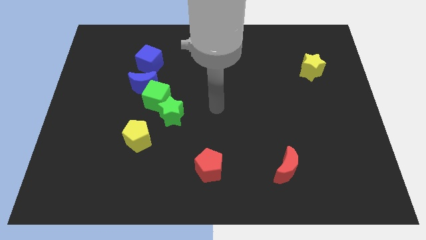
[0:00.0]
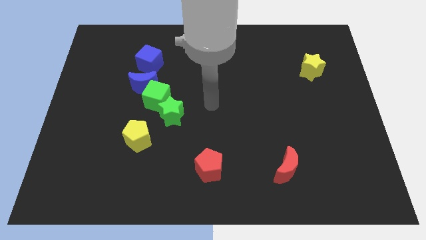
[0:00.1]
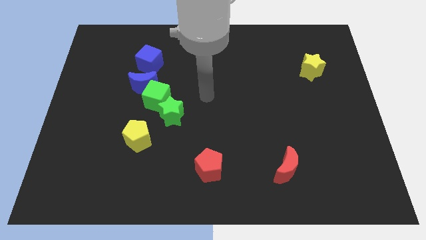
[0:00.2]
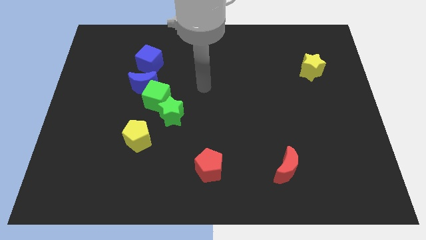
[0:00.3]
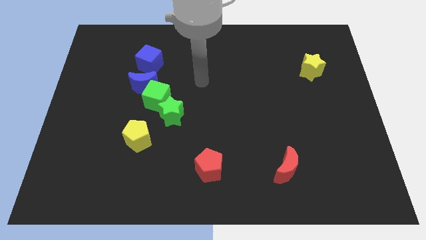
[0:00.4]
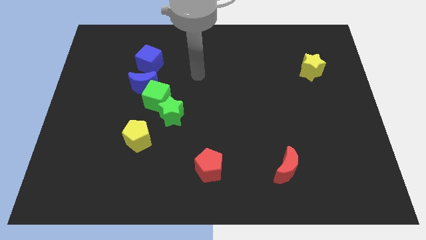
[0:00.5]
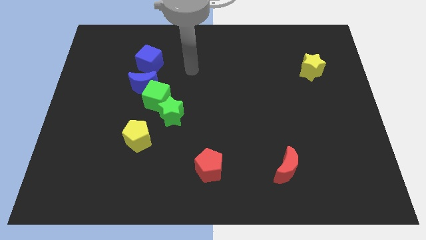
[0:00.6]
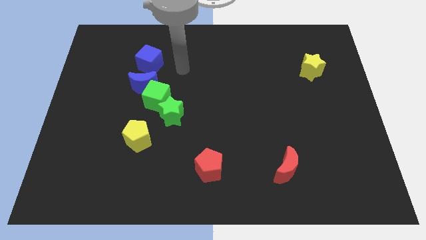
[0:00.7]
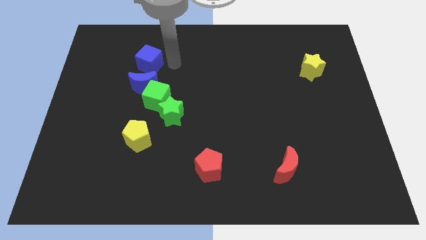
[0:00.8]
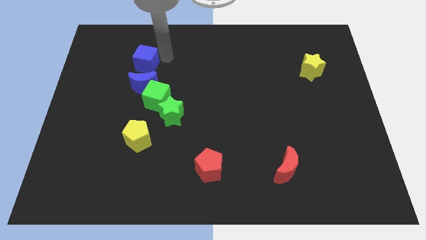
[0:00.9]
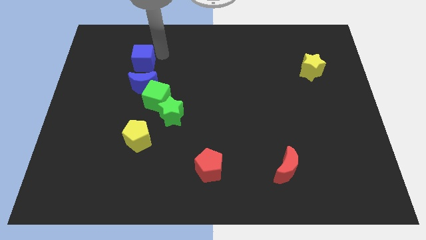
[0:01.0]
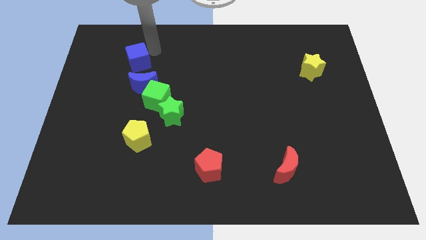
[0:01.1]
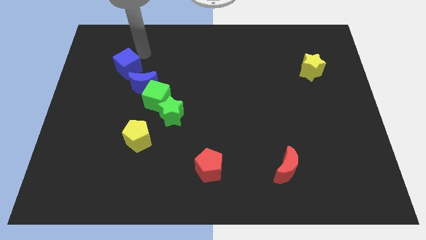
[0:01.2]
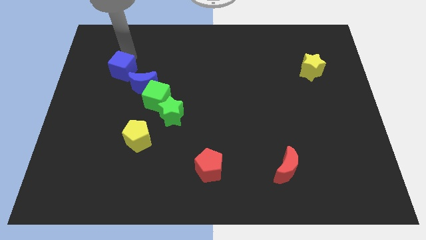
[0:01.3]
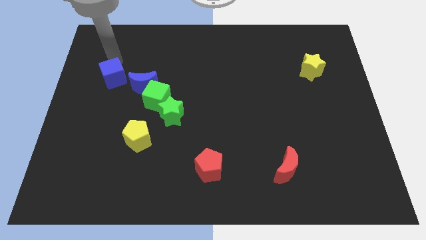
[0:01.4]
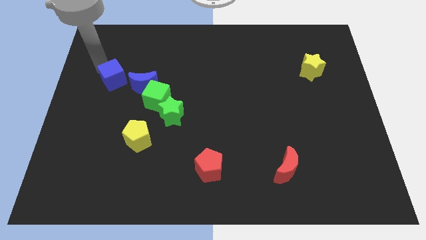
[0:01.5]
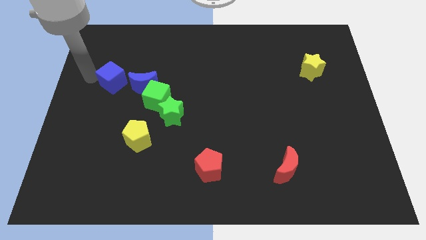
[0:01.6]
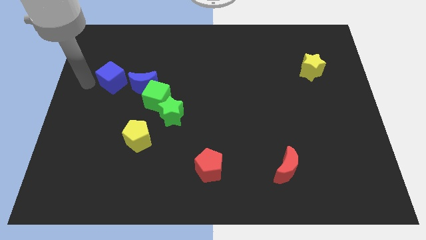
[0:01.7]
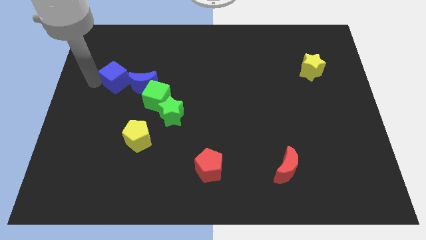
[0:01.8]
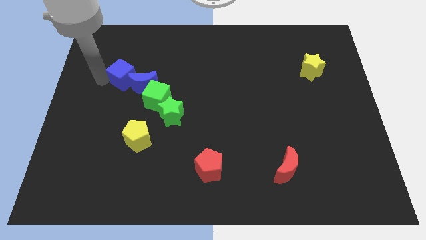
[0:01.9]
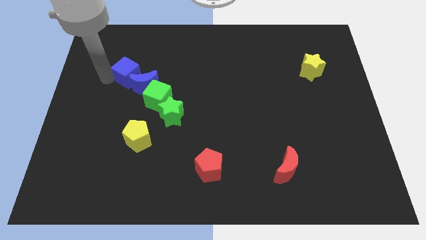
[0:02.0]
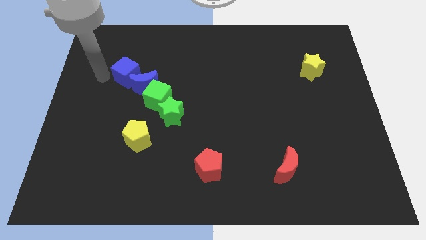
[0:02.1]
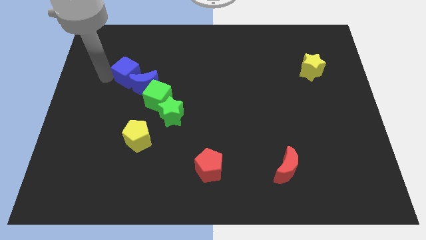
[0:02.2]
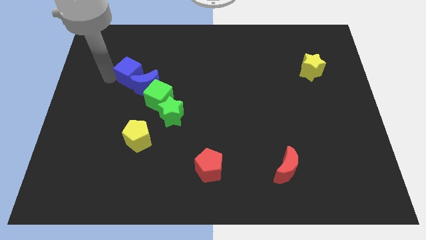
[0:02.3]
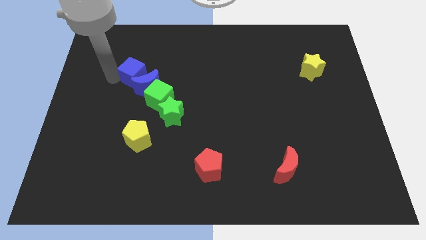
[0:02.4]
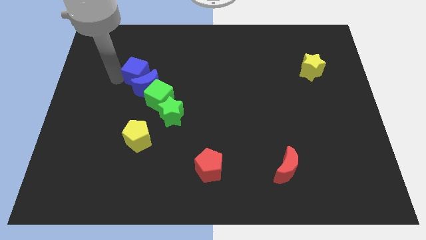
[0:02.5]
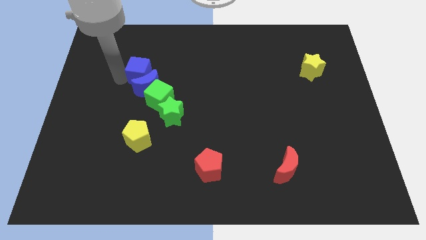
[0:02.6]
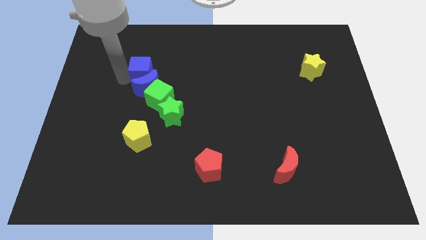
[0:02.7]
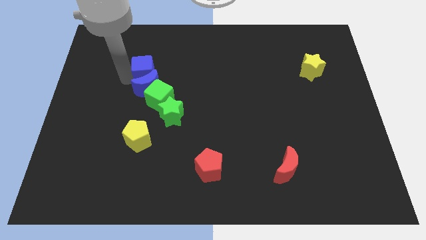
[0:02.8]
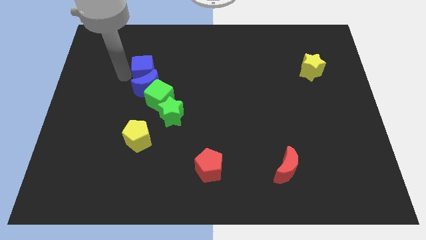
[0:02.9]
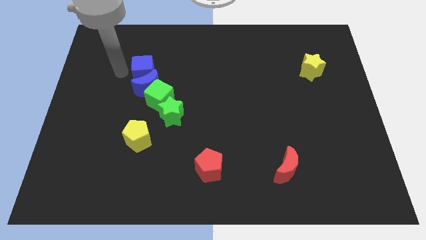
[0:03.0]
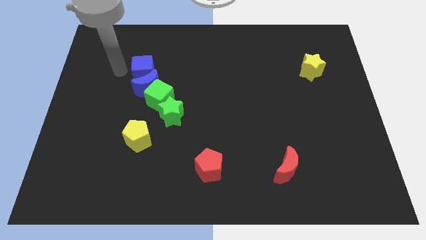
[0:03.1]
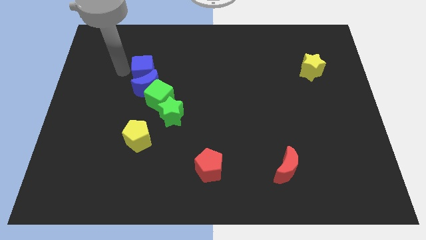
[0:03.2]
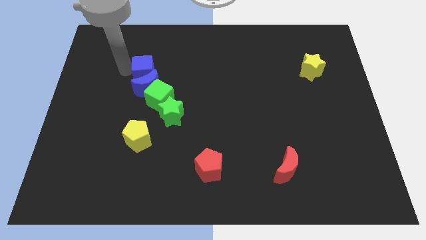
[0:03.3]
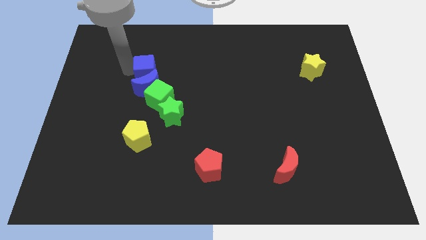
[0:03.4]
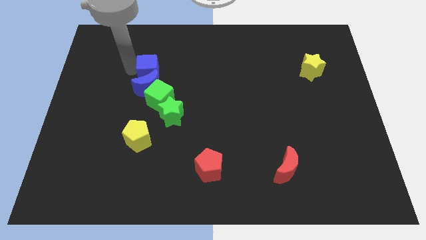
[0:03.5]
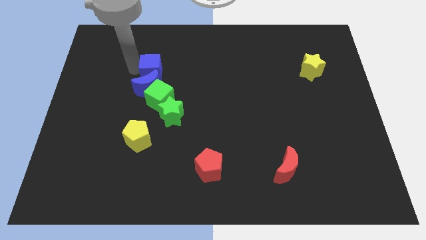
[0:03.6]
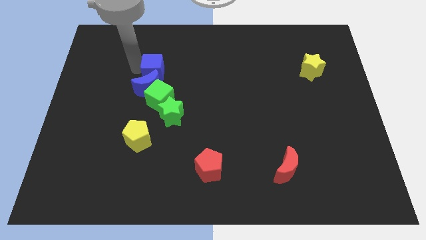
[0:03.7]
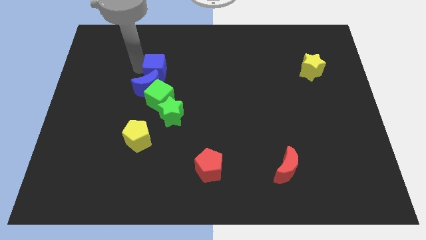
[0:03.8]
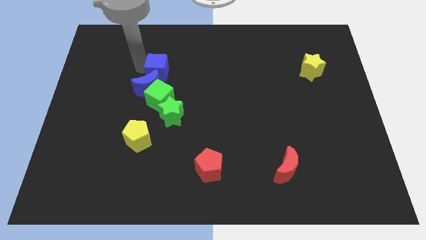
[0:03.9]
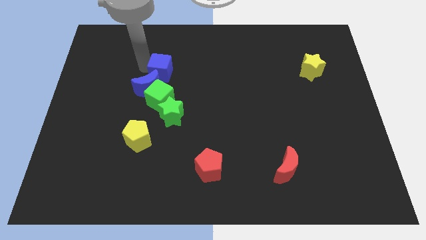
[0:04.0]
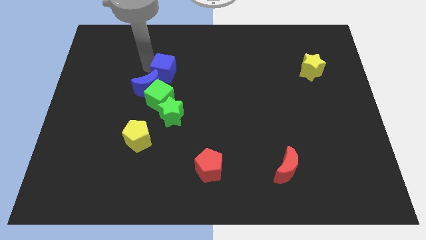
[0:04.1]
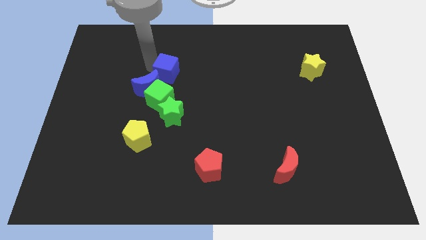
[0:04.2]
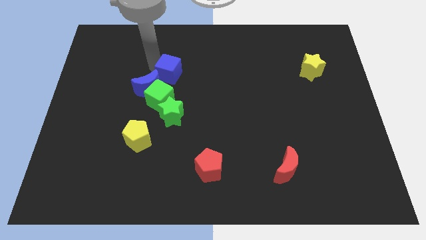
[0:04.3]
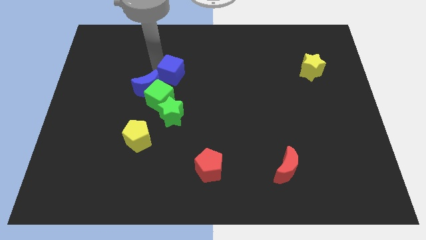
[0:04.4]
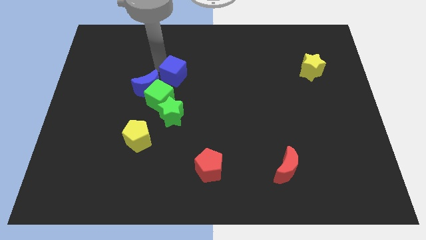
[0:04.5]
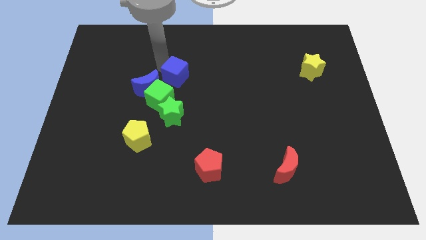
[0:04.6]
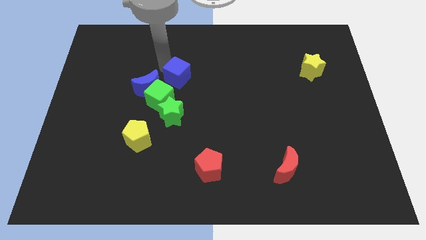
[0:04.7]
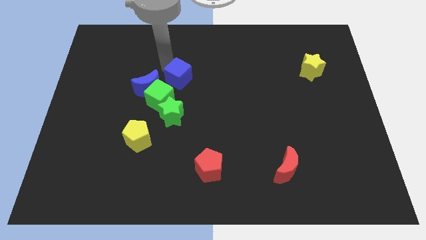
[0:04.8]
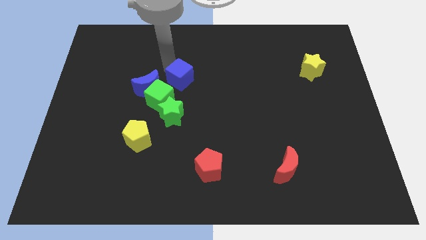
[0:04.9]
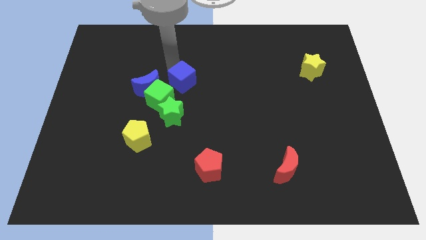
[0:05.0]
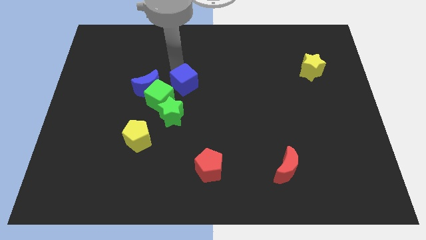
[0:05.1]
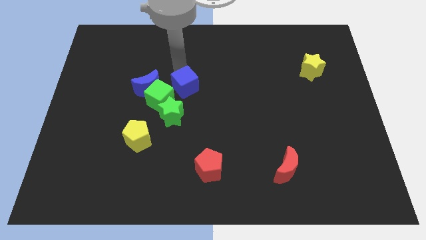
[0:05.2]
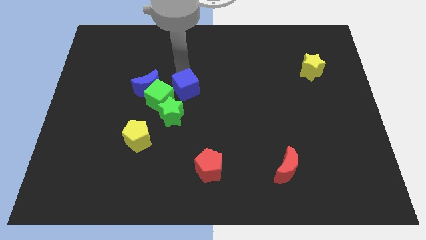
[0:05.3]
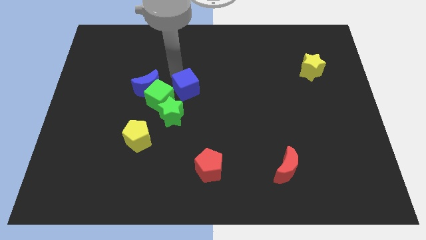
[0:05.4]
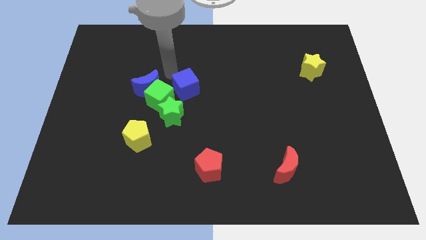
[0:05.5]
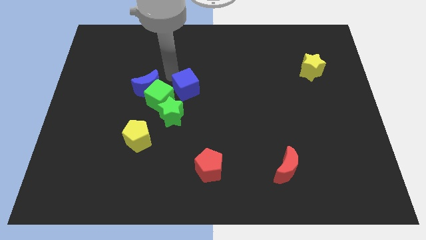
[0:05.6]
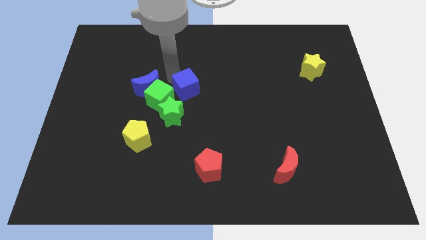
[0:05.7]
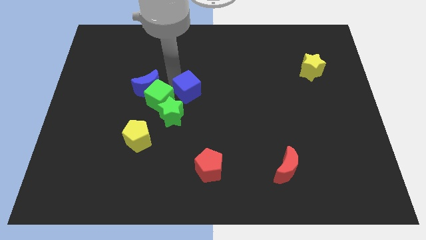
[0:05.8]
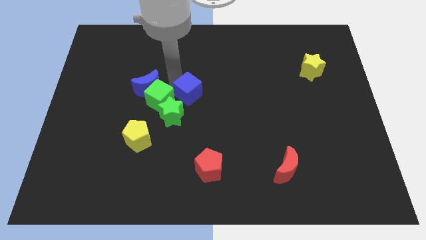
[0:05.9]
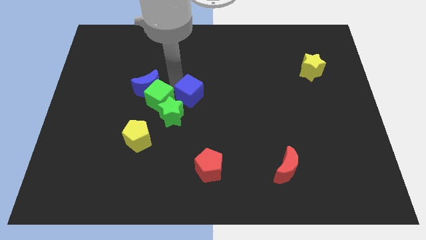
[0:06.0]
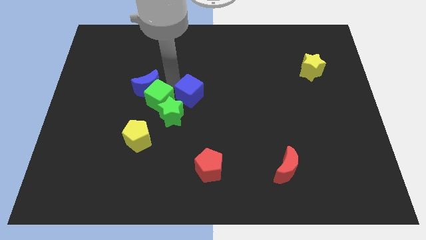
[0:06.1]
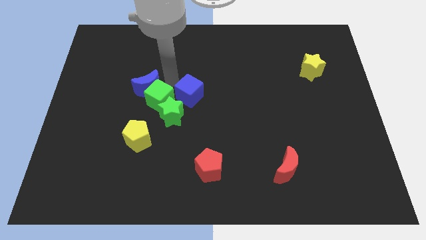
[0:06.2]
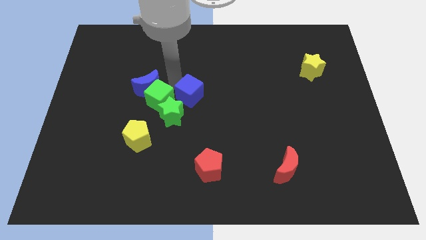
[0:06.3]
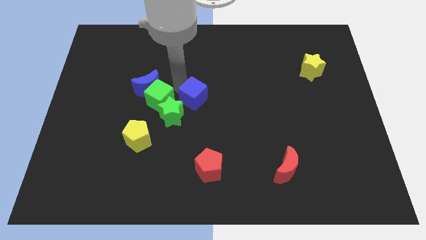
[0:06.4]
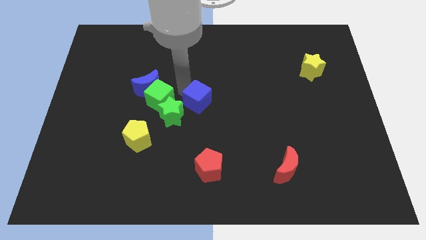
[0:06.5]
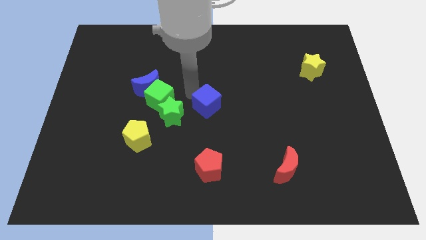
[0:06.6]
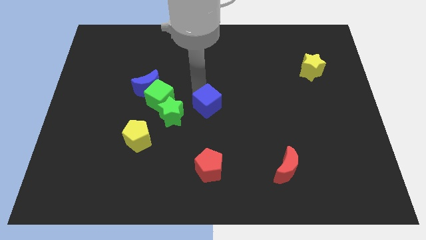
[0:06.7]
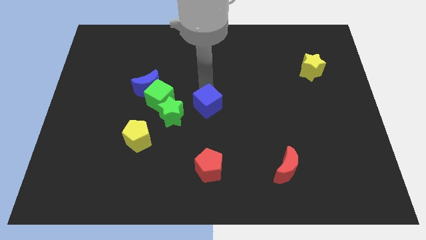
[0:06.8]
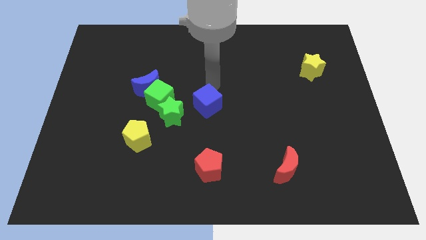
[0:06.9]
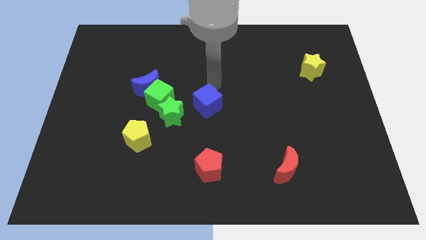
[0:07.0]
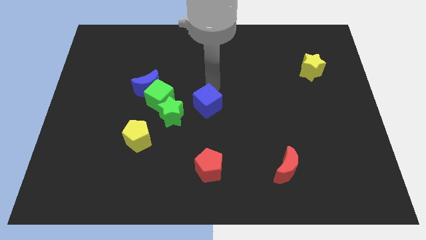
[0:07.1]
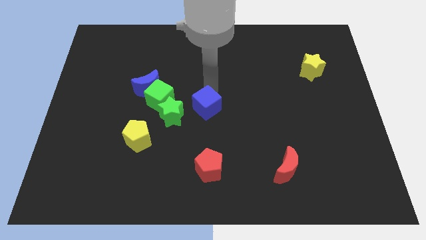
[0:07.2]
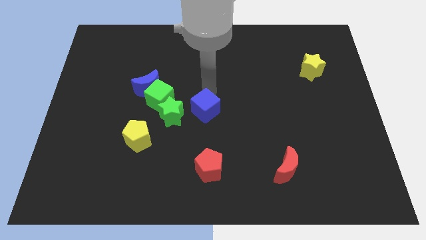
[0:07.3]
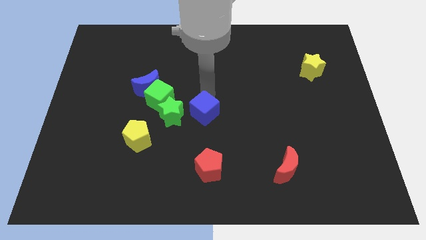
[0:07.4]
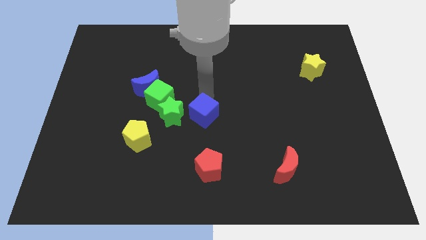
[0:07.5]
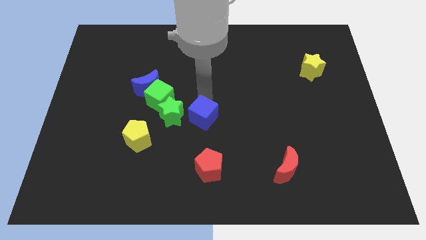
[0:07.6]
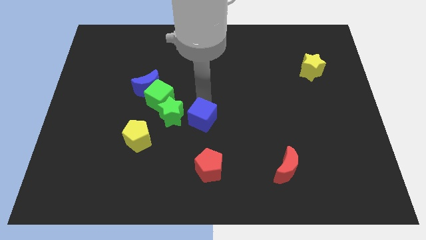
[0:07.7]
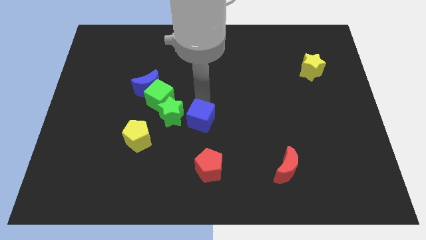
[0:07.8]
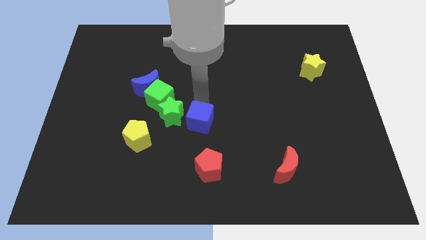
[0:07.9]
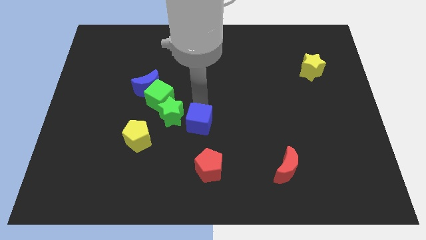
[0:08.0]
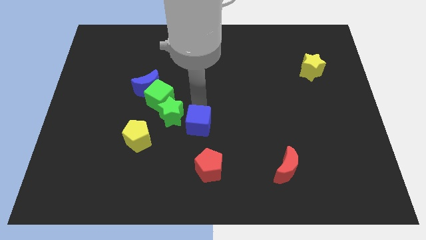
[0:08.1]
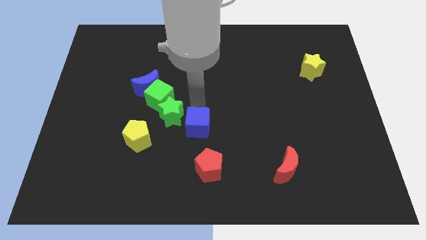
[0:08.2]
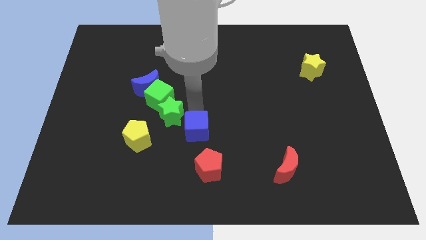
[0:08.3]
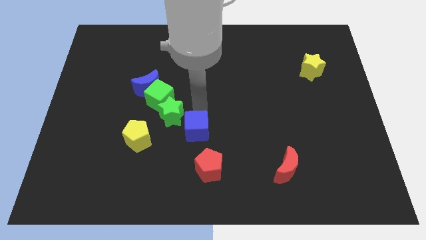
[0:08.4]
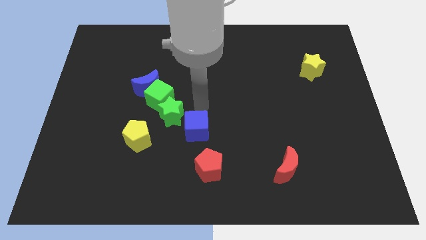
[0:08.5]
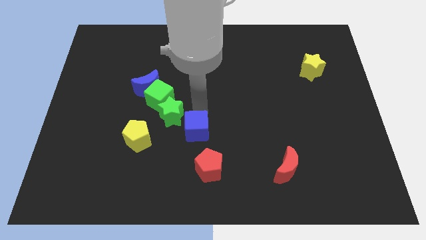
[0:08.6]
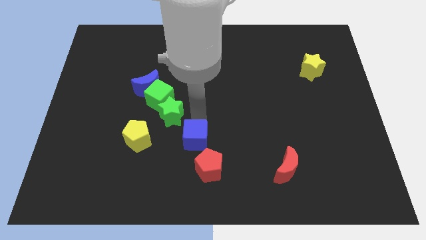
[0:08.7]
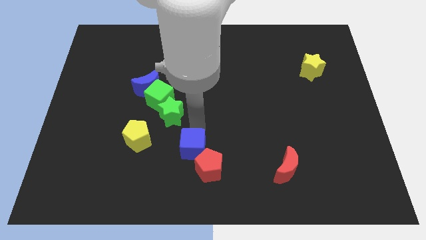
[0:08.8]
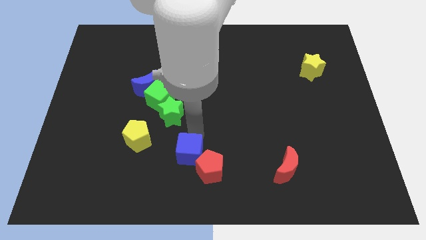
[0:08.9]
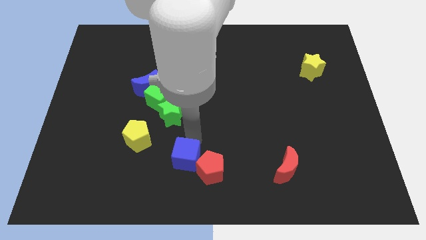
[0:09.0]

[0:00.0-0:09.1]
push the blue cube to the bottom side
